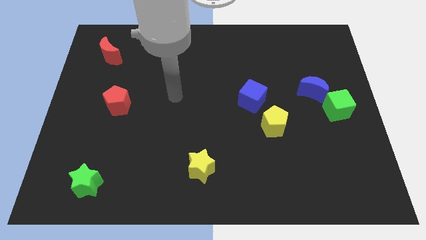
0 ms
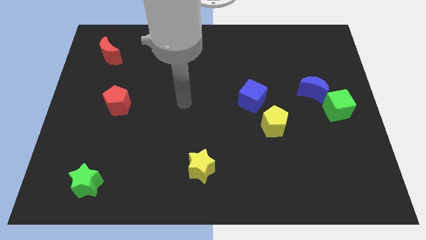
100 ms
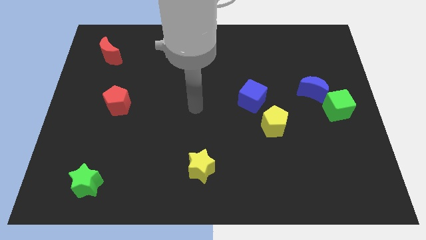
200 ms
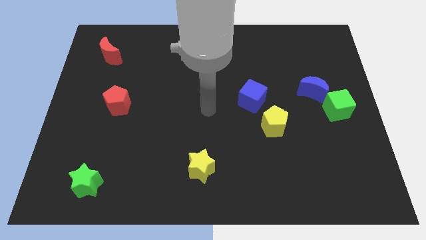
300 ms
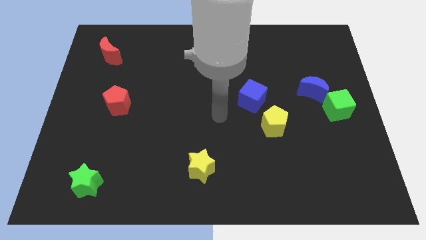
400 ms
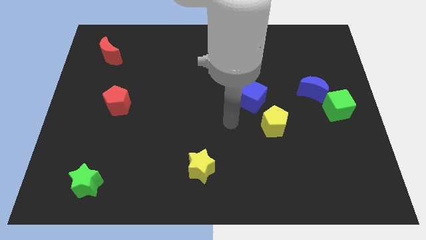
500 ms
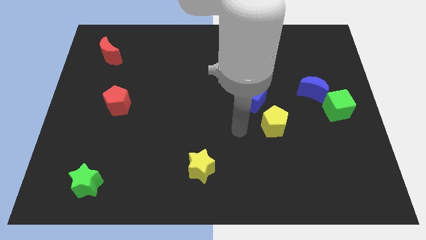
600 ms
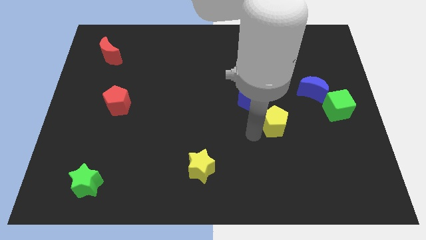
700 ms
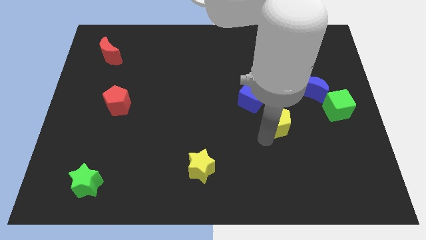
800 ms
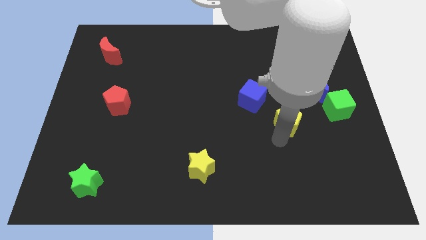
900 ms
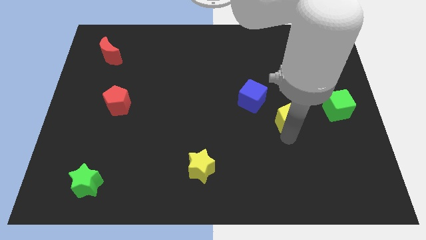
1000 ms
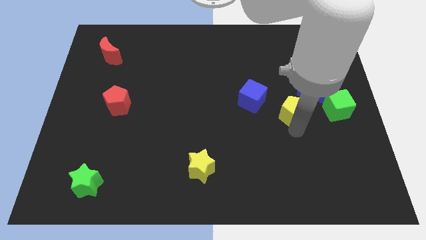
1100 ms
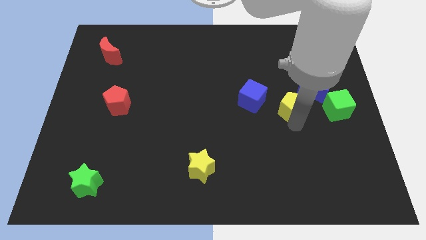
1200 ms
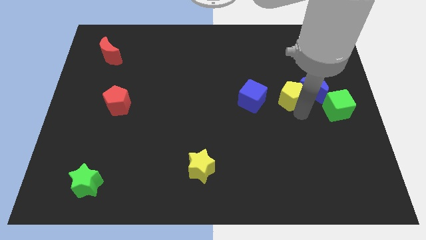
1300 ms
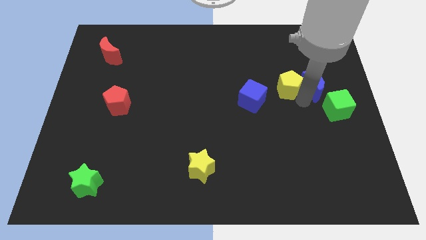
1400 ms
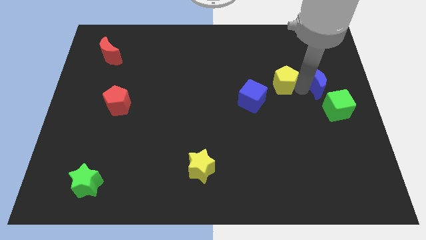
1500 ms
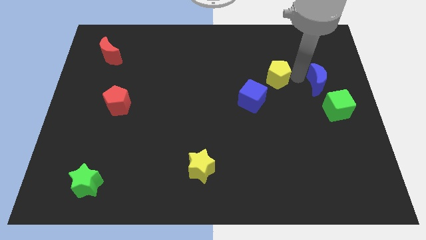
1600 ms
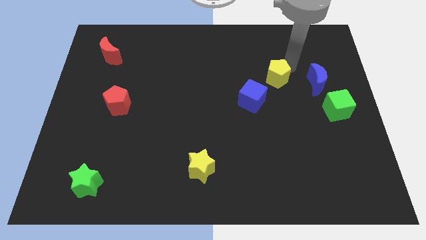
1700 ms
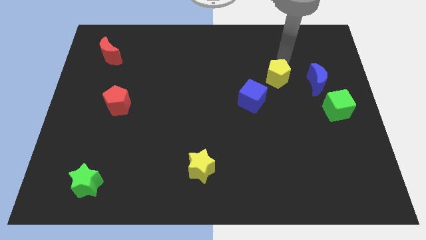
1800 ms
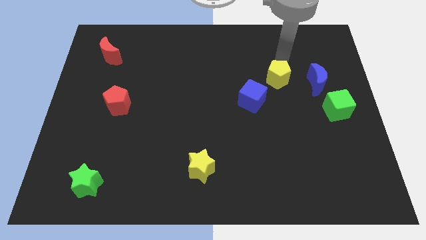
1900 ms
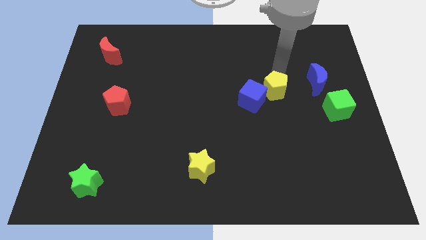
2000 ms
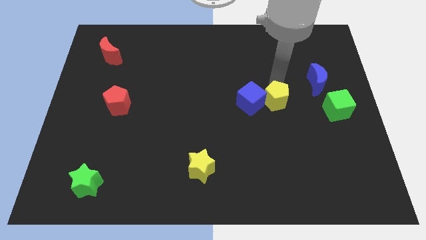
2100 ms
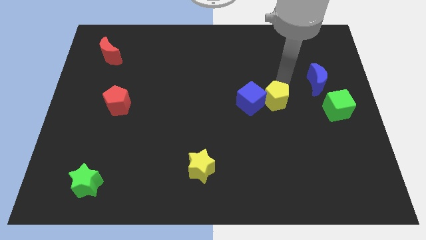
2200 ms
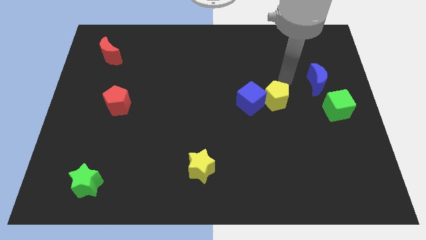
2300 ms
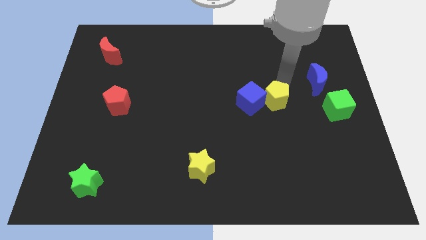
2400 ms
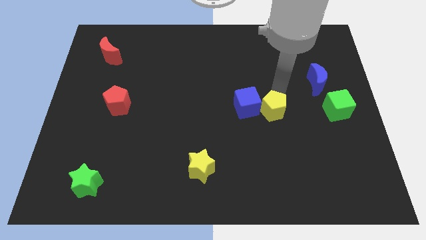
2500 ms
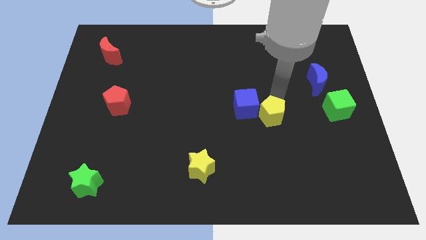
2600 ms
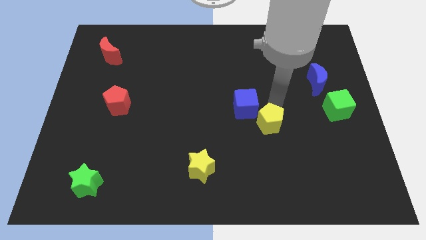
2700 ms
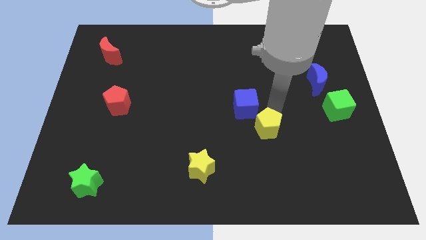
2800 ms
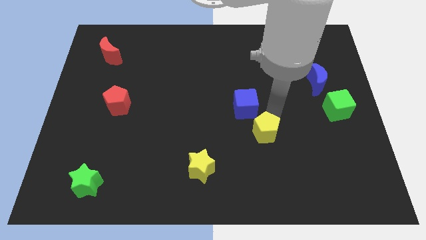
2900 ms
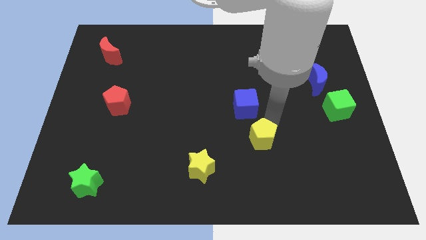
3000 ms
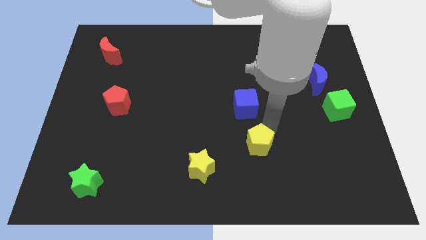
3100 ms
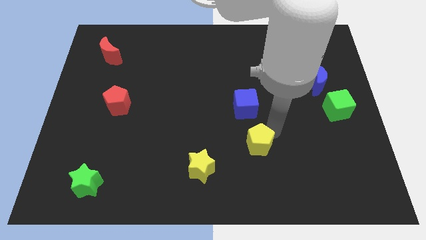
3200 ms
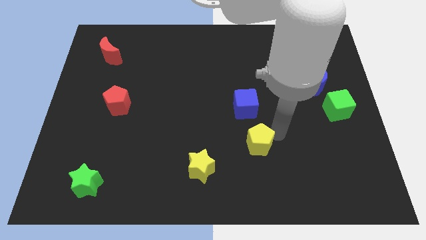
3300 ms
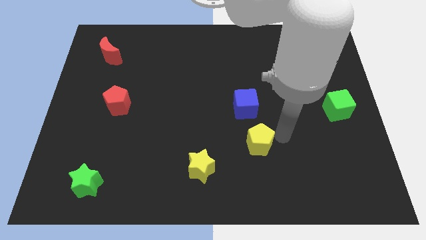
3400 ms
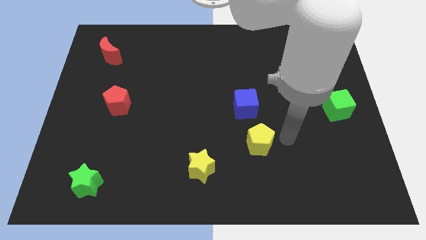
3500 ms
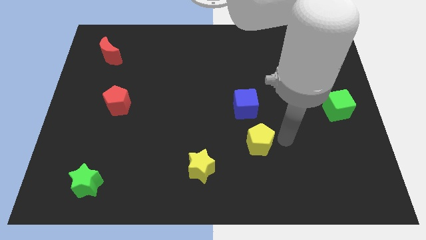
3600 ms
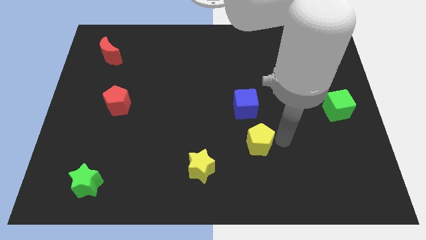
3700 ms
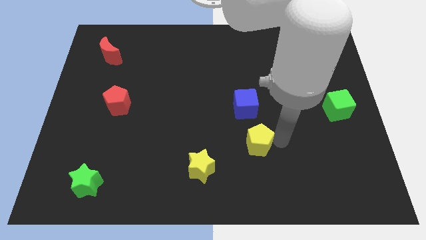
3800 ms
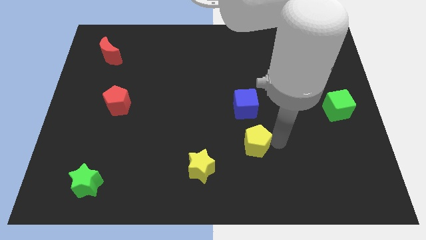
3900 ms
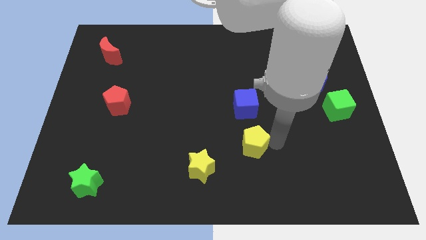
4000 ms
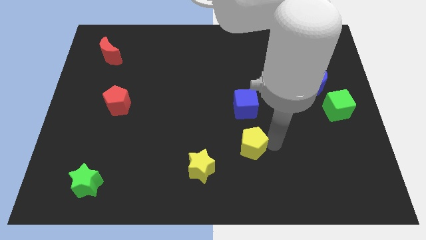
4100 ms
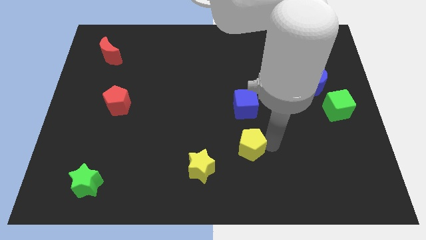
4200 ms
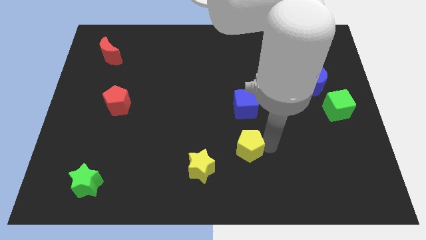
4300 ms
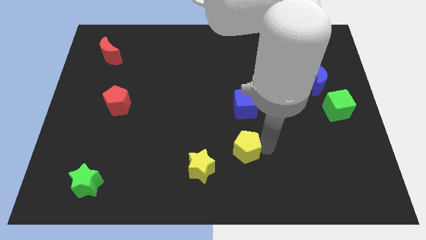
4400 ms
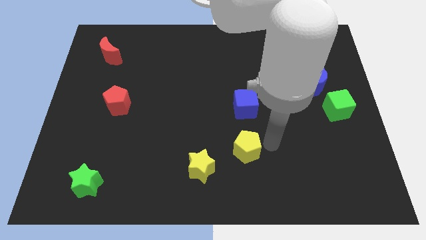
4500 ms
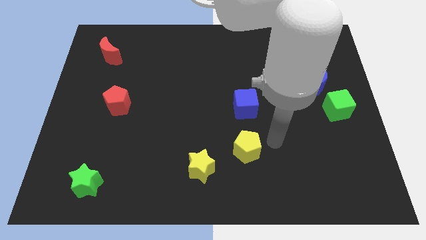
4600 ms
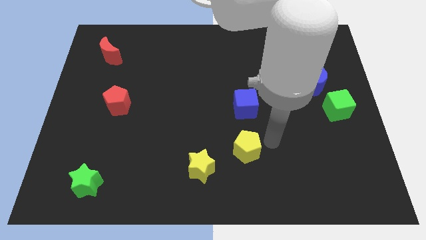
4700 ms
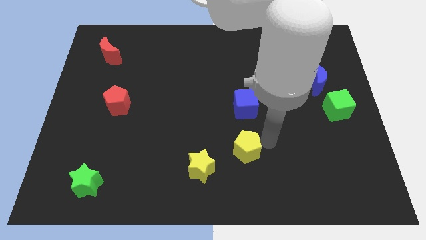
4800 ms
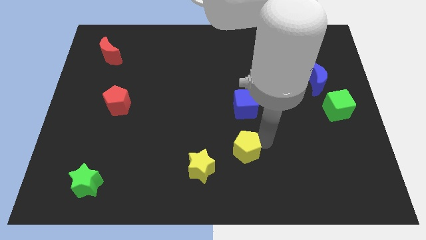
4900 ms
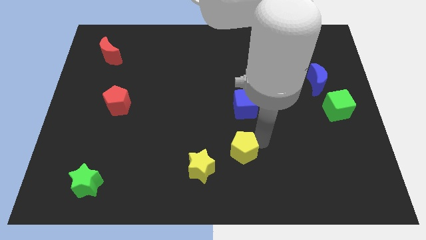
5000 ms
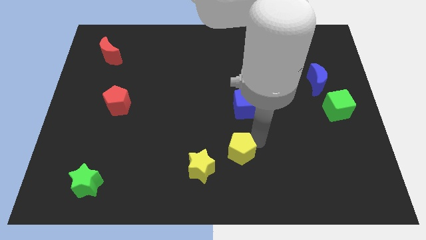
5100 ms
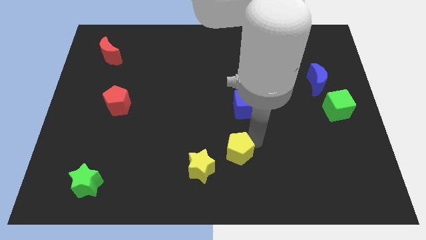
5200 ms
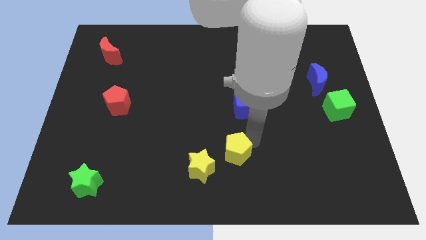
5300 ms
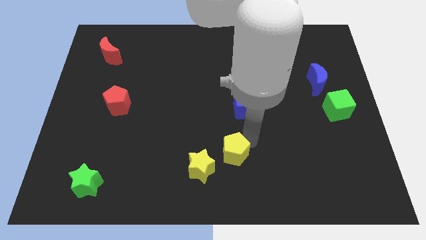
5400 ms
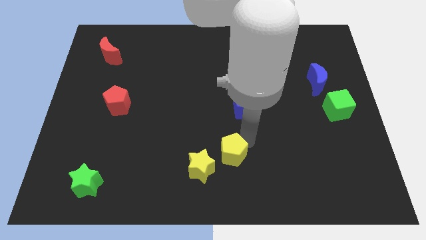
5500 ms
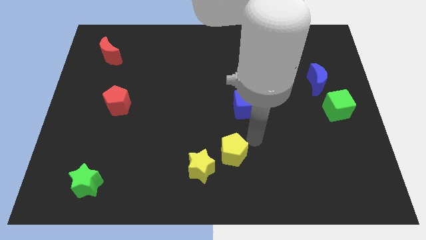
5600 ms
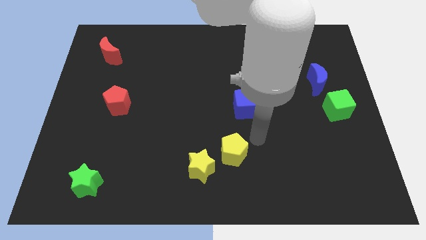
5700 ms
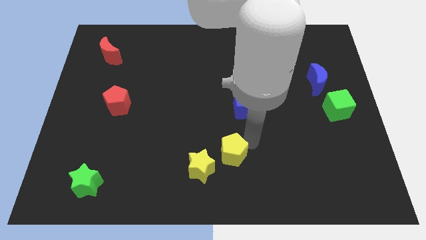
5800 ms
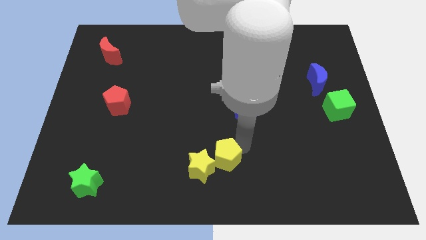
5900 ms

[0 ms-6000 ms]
put the yellow pentagon to the yellow star

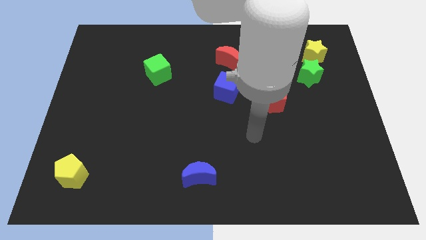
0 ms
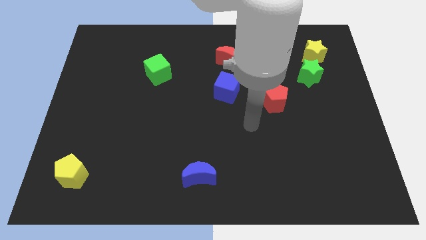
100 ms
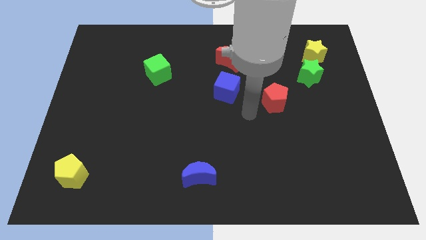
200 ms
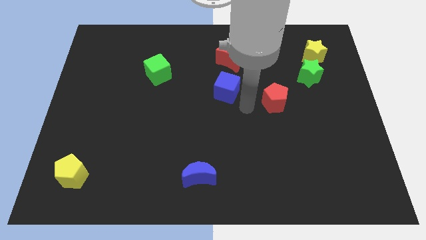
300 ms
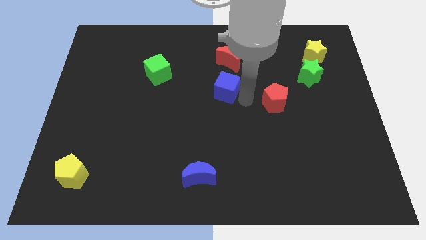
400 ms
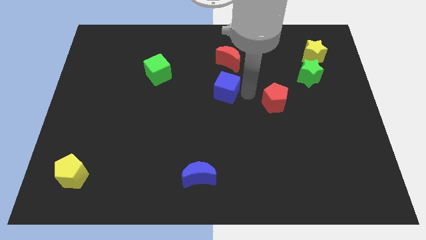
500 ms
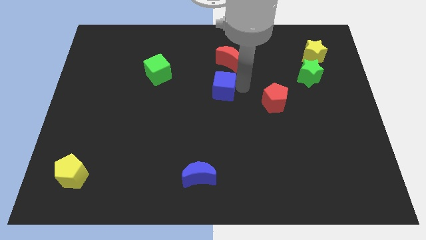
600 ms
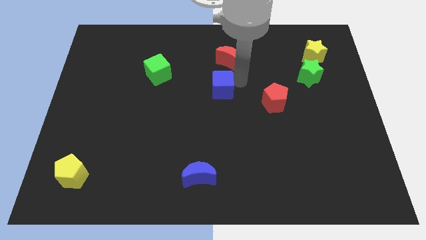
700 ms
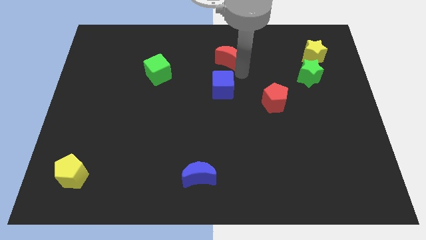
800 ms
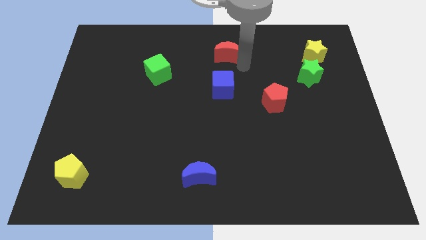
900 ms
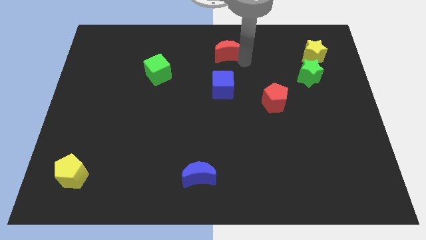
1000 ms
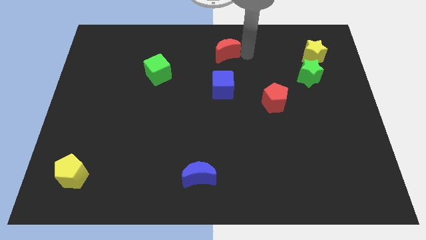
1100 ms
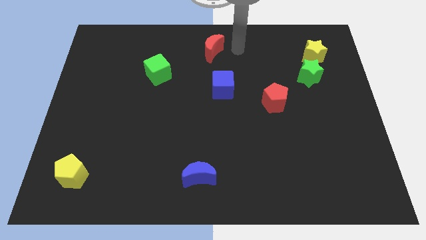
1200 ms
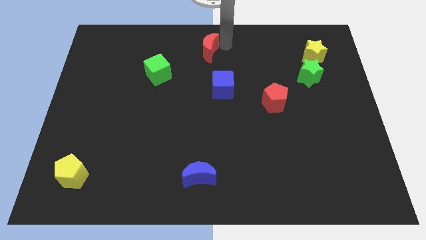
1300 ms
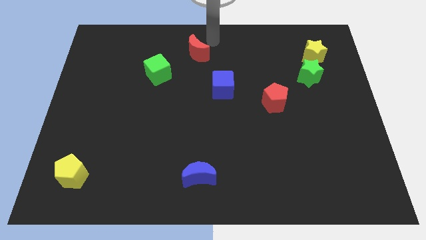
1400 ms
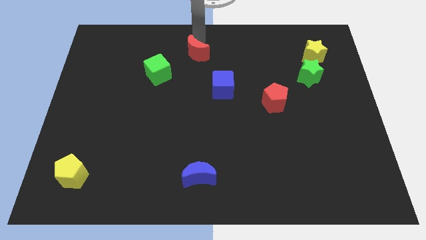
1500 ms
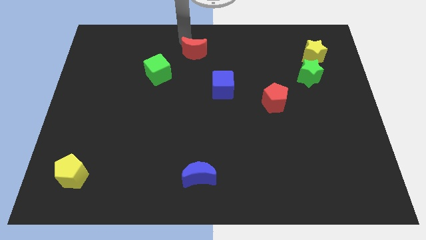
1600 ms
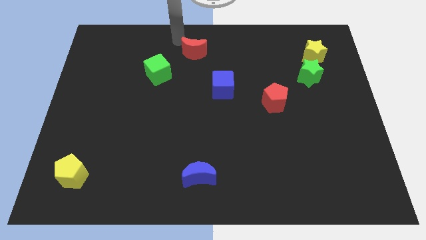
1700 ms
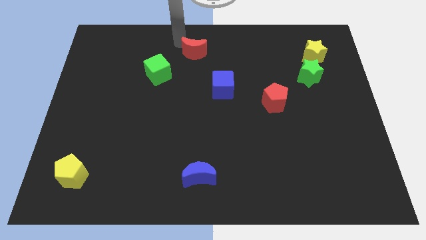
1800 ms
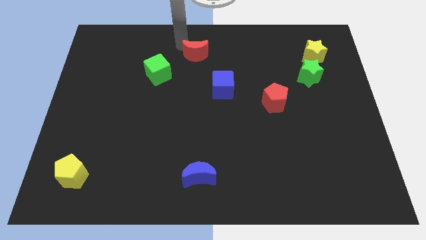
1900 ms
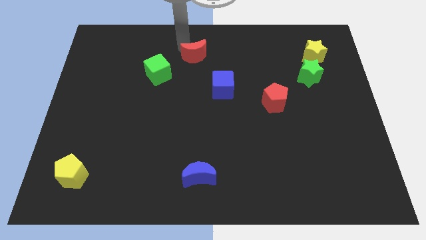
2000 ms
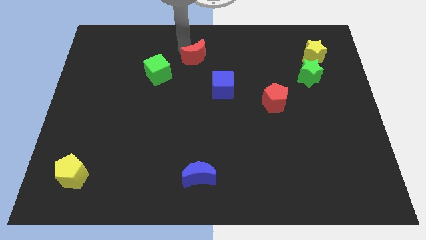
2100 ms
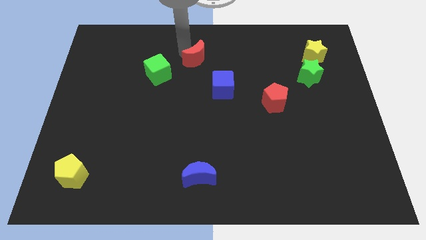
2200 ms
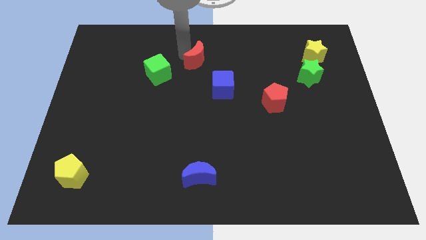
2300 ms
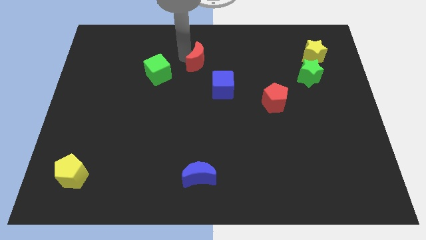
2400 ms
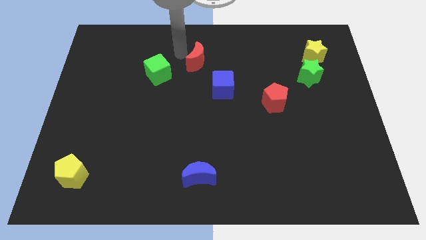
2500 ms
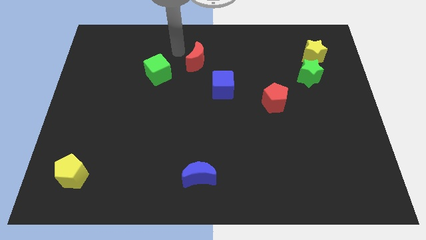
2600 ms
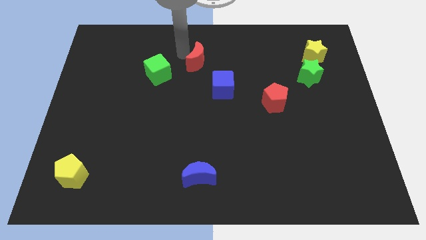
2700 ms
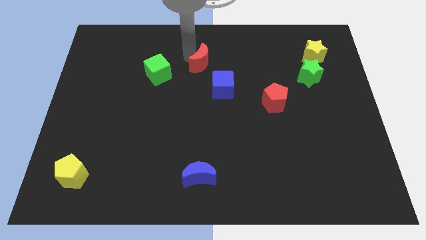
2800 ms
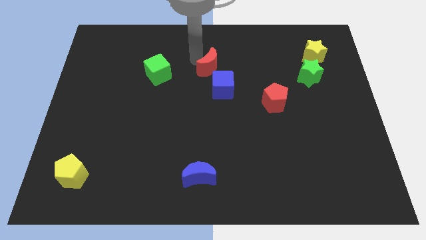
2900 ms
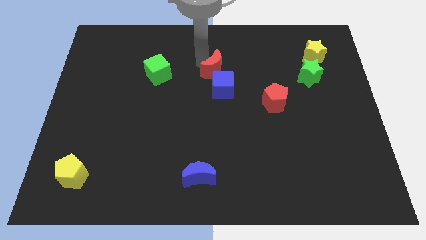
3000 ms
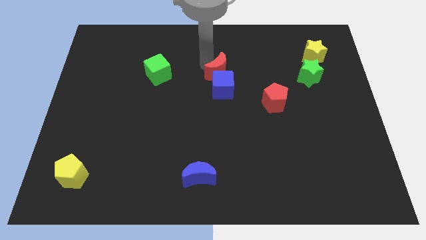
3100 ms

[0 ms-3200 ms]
put the red moon to the blue cube
